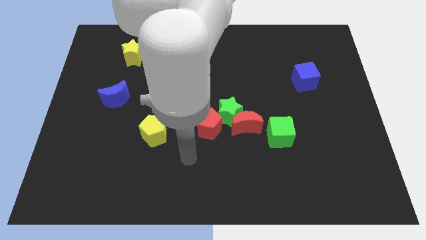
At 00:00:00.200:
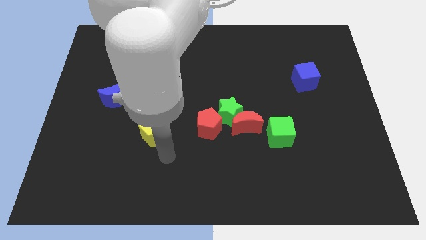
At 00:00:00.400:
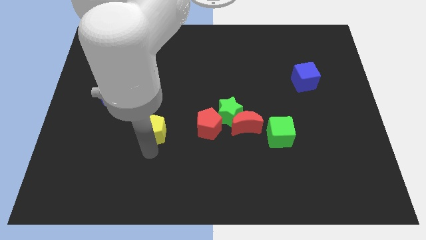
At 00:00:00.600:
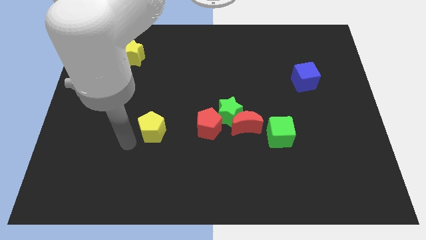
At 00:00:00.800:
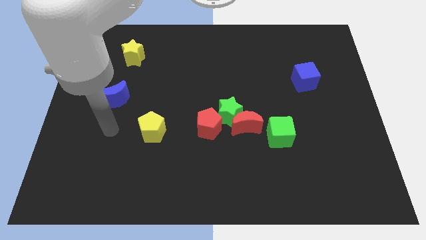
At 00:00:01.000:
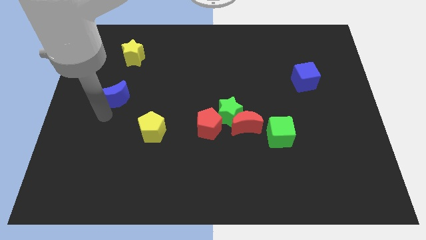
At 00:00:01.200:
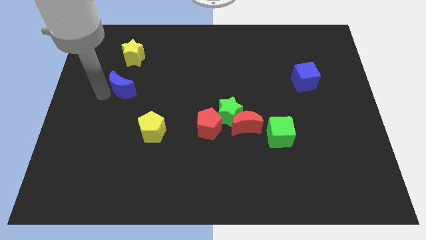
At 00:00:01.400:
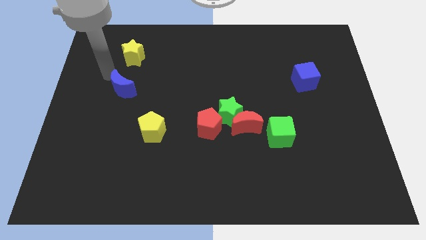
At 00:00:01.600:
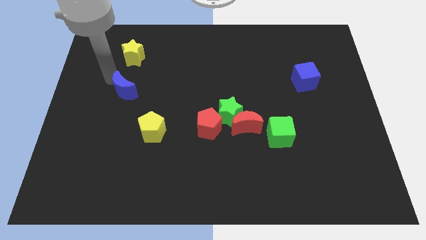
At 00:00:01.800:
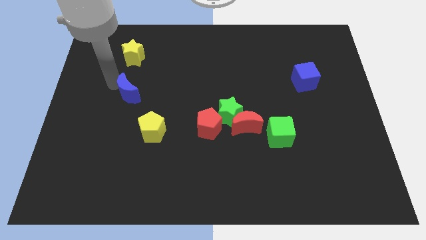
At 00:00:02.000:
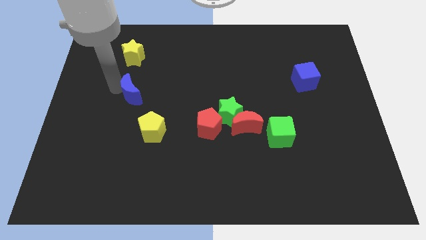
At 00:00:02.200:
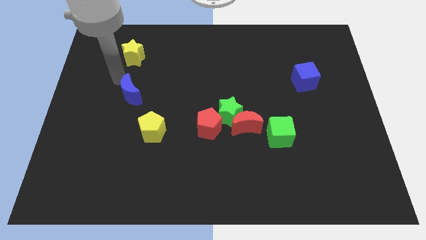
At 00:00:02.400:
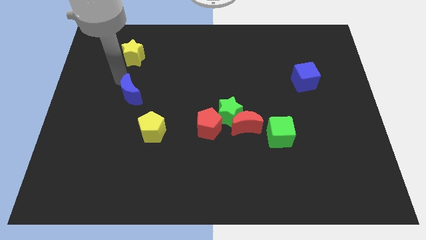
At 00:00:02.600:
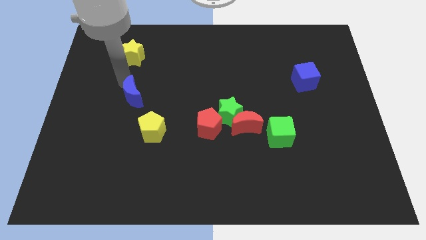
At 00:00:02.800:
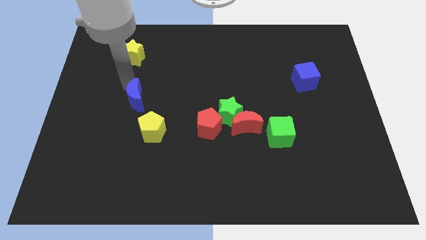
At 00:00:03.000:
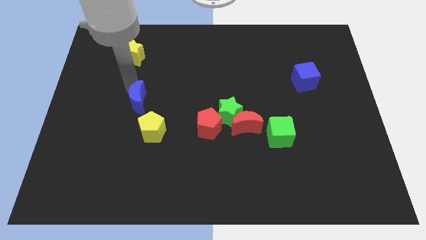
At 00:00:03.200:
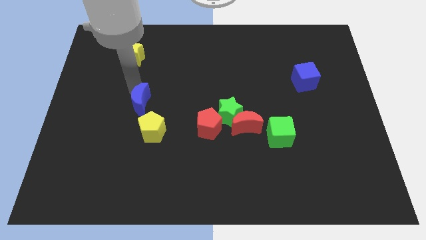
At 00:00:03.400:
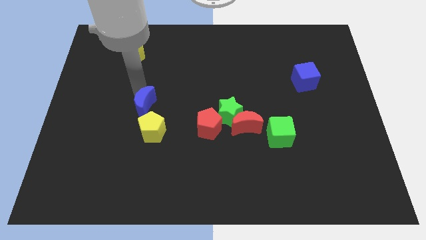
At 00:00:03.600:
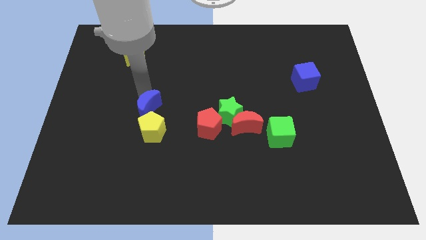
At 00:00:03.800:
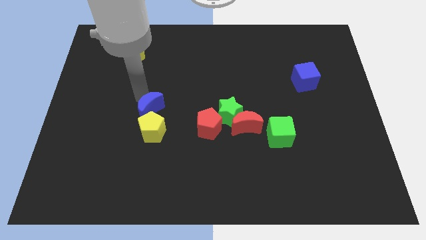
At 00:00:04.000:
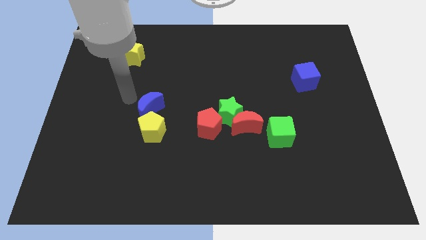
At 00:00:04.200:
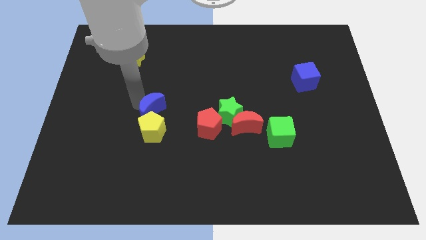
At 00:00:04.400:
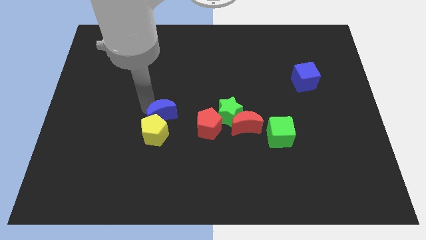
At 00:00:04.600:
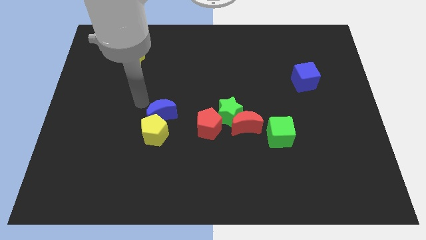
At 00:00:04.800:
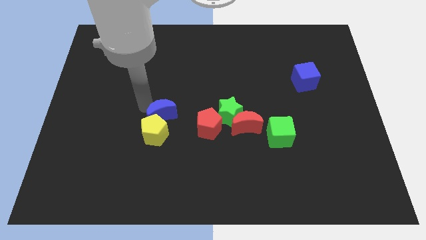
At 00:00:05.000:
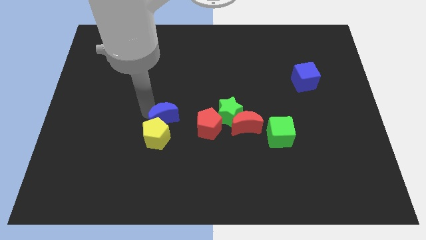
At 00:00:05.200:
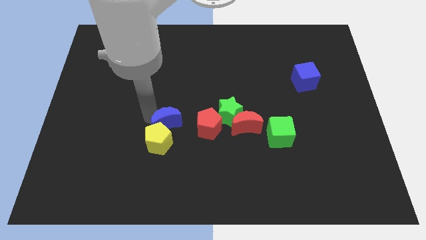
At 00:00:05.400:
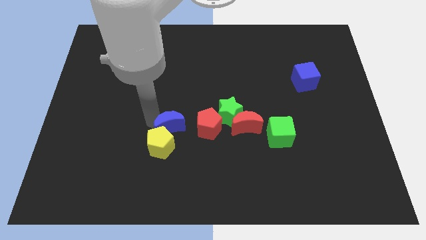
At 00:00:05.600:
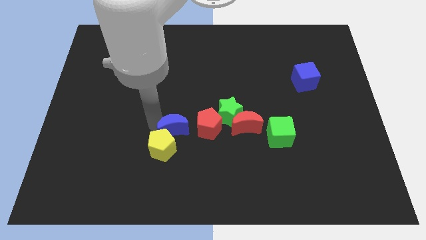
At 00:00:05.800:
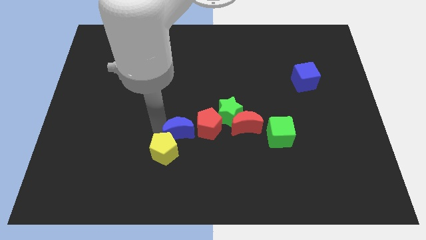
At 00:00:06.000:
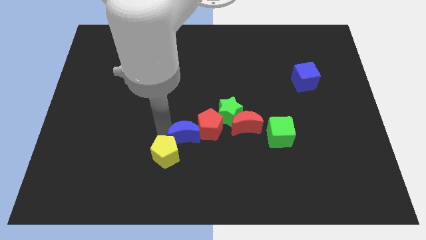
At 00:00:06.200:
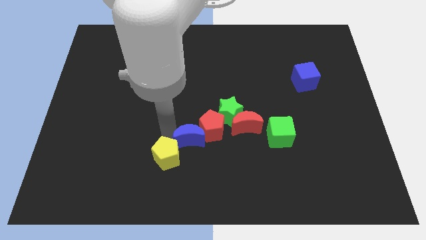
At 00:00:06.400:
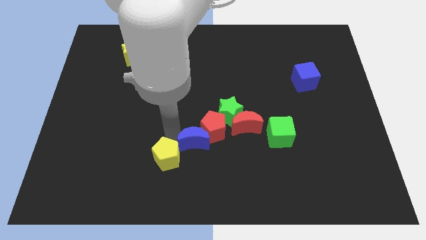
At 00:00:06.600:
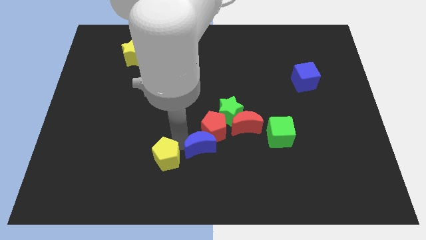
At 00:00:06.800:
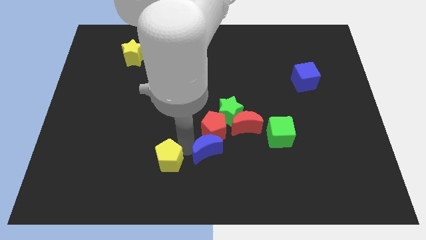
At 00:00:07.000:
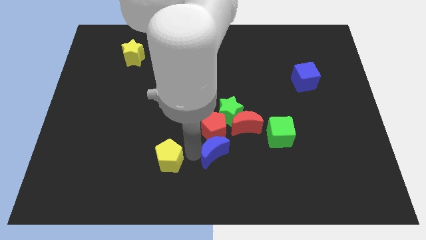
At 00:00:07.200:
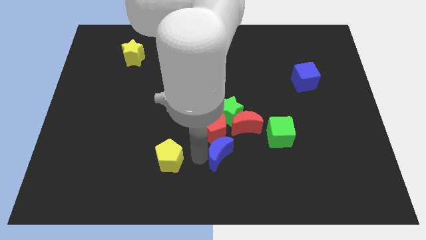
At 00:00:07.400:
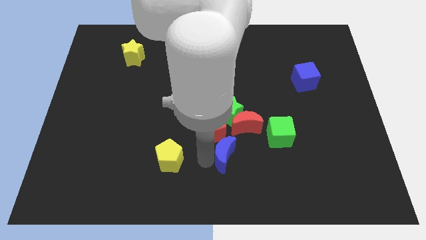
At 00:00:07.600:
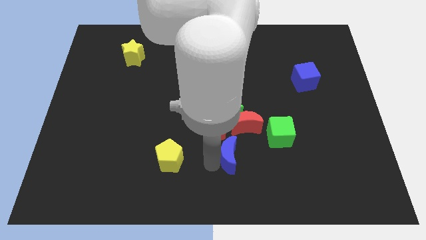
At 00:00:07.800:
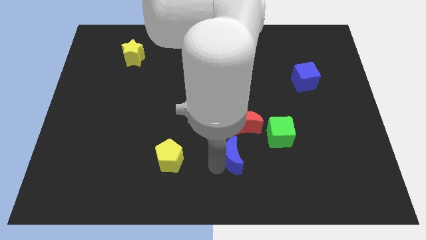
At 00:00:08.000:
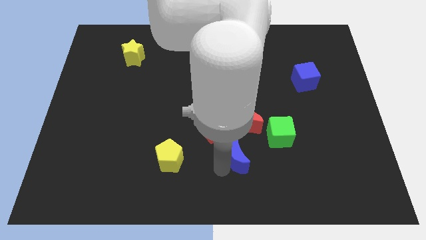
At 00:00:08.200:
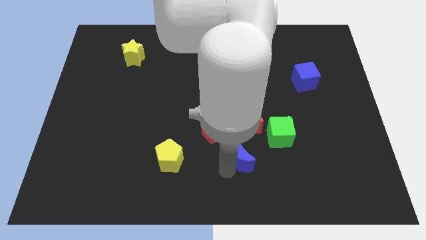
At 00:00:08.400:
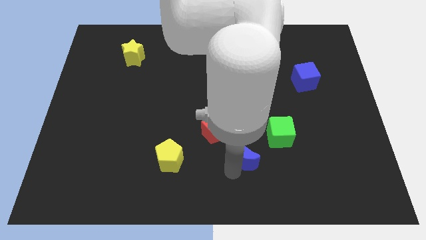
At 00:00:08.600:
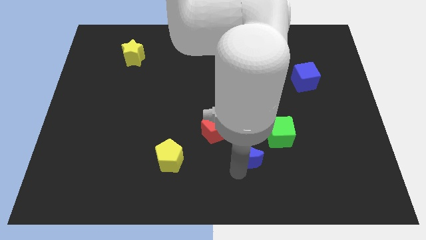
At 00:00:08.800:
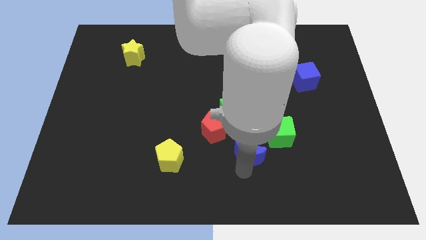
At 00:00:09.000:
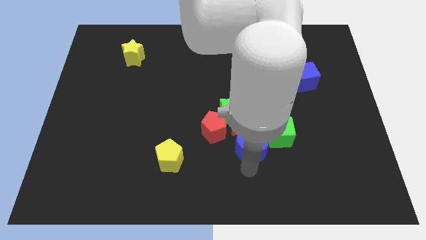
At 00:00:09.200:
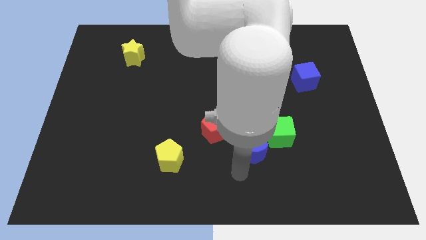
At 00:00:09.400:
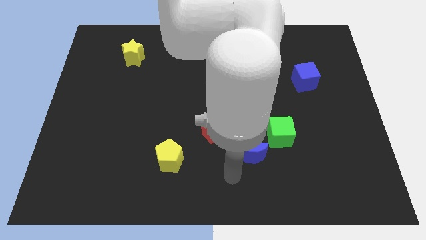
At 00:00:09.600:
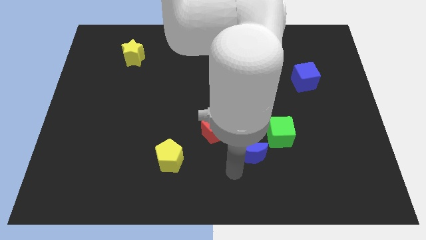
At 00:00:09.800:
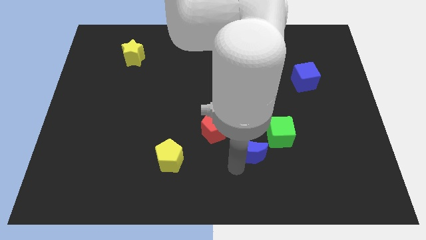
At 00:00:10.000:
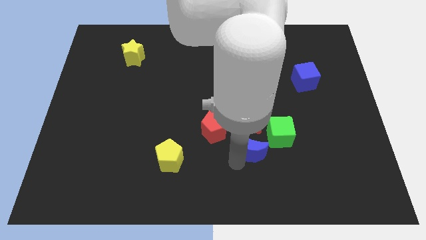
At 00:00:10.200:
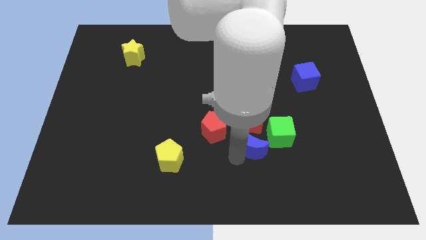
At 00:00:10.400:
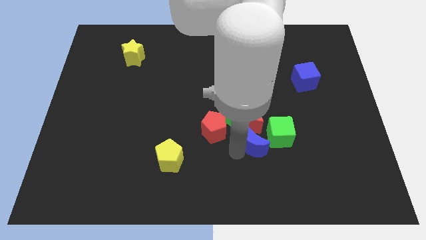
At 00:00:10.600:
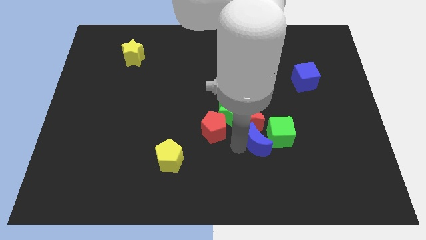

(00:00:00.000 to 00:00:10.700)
move the blue moon next to the green cube

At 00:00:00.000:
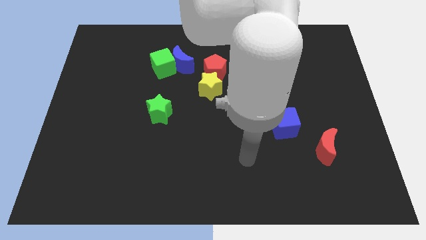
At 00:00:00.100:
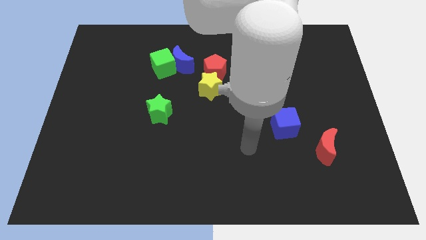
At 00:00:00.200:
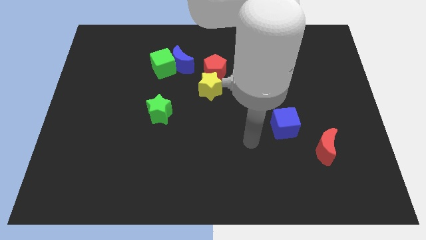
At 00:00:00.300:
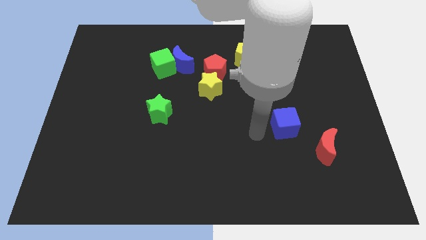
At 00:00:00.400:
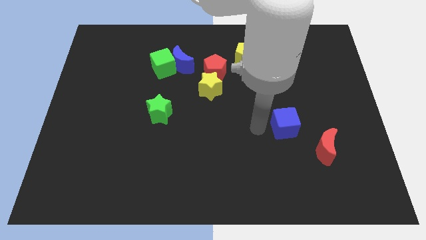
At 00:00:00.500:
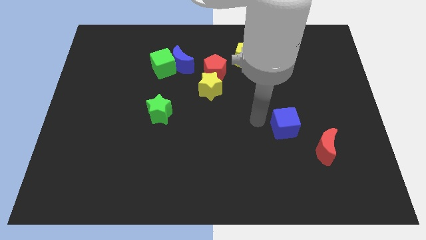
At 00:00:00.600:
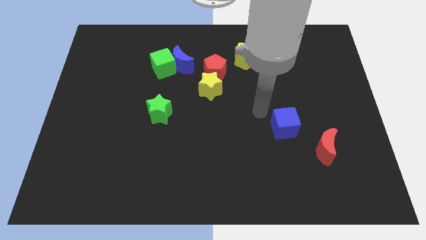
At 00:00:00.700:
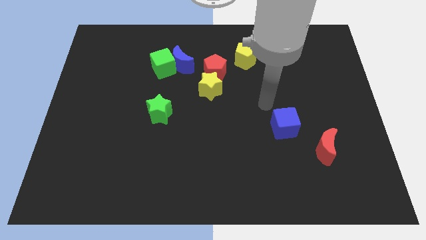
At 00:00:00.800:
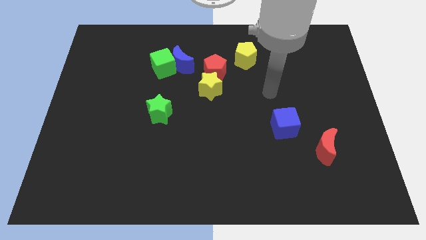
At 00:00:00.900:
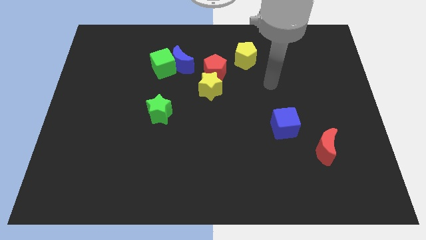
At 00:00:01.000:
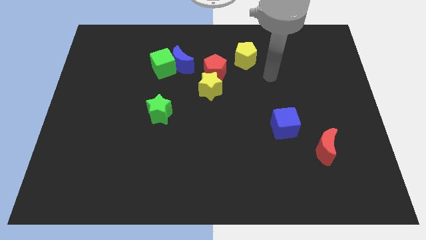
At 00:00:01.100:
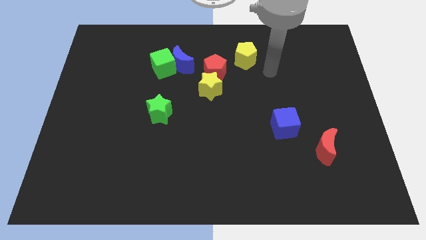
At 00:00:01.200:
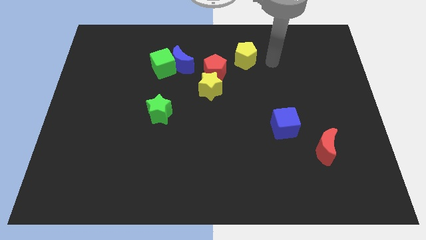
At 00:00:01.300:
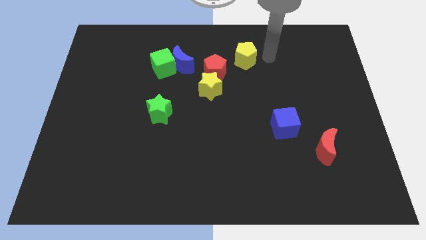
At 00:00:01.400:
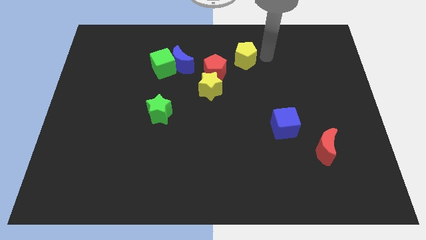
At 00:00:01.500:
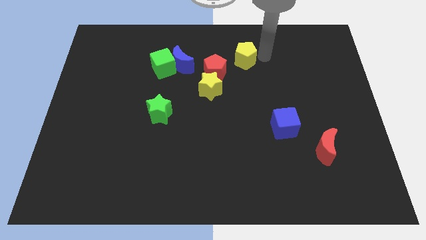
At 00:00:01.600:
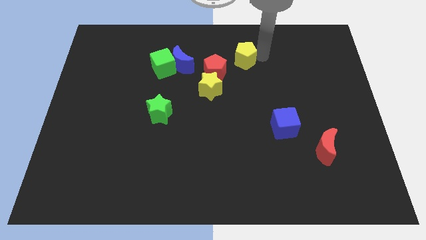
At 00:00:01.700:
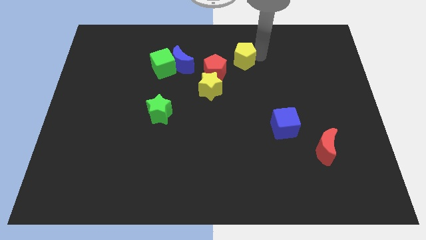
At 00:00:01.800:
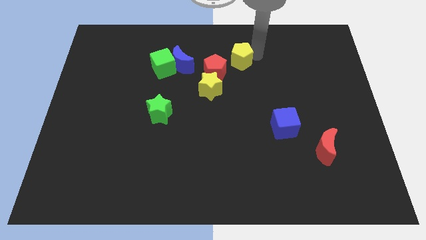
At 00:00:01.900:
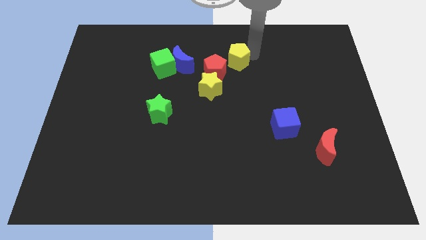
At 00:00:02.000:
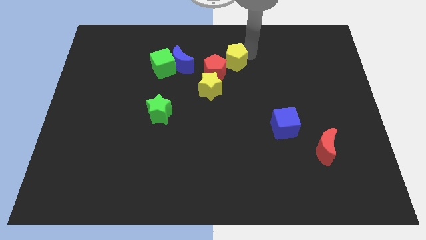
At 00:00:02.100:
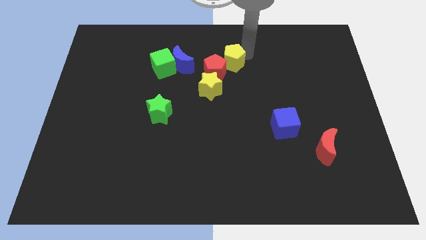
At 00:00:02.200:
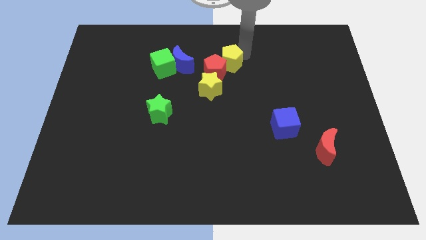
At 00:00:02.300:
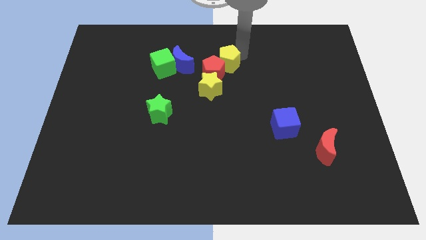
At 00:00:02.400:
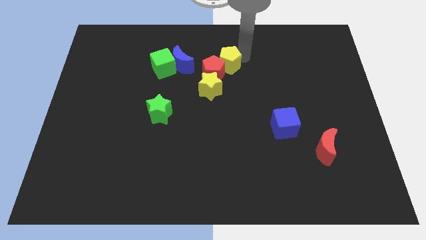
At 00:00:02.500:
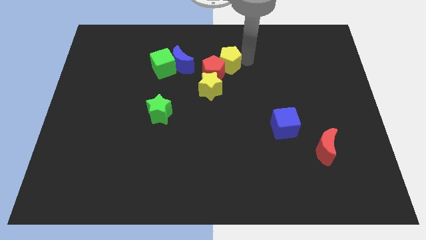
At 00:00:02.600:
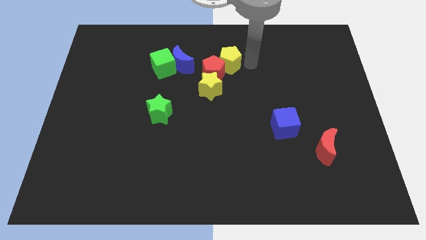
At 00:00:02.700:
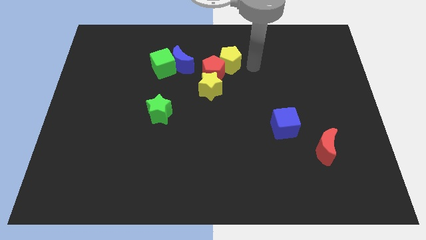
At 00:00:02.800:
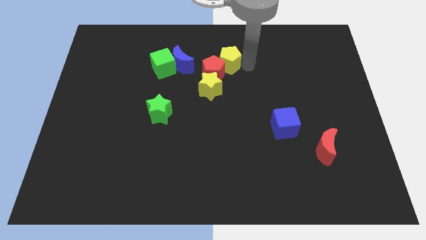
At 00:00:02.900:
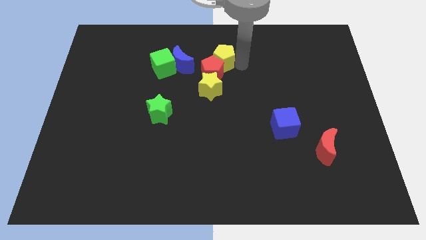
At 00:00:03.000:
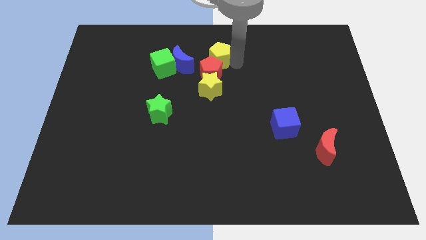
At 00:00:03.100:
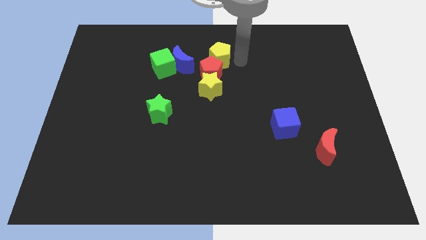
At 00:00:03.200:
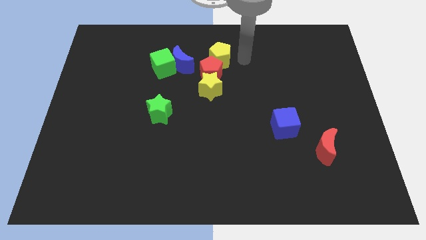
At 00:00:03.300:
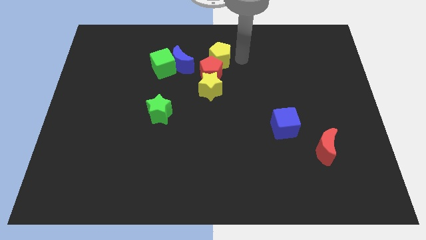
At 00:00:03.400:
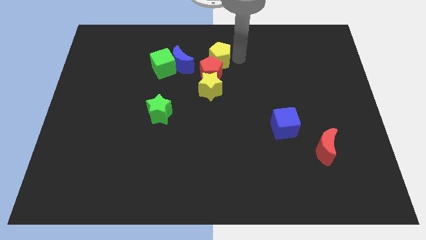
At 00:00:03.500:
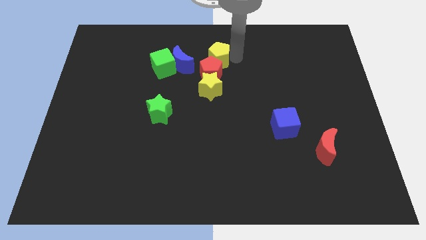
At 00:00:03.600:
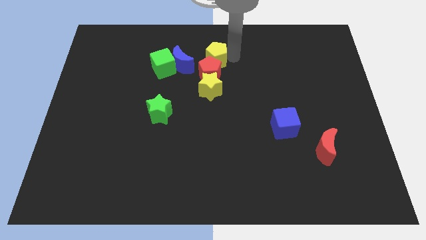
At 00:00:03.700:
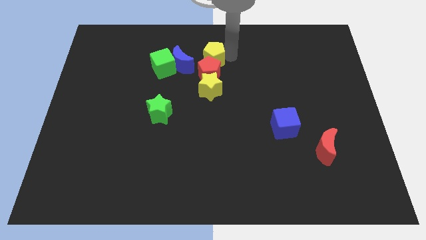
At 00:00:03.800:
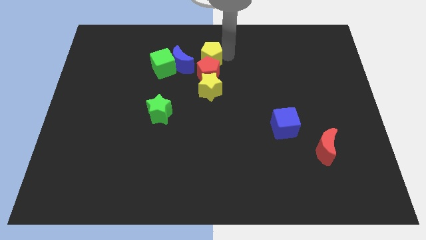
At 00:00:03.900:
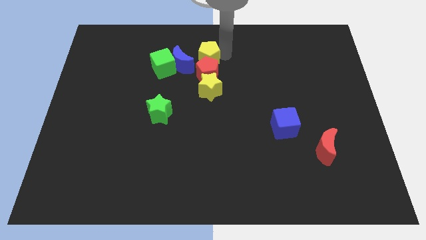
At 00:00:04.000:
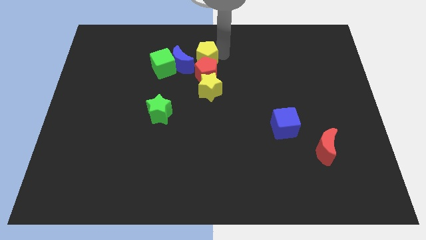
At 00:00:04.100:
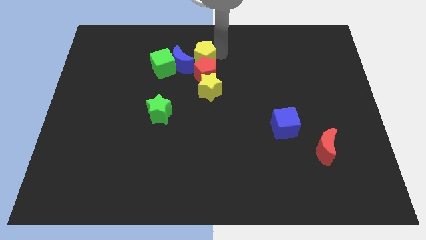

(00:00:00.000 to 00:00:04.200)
move the yellow pentagon to the blue moon
